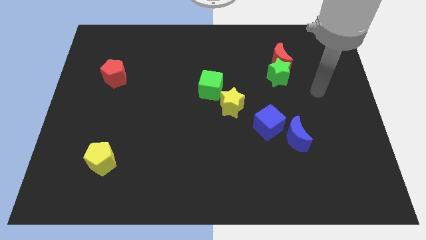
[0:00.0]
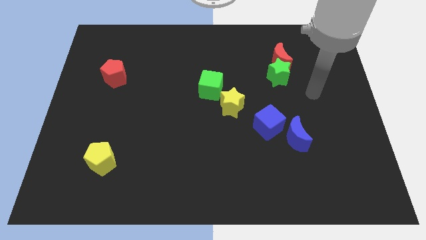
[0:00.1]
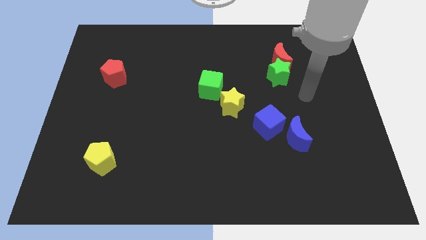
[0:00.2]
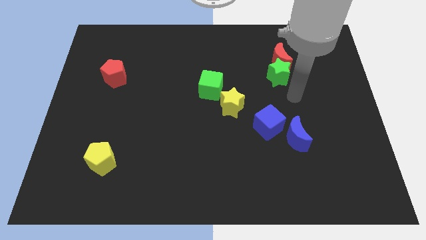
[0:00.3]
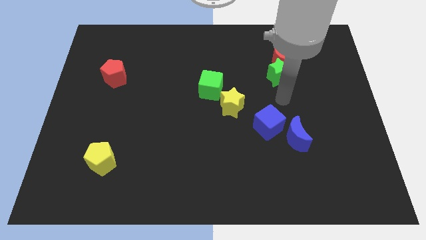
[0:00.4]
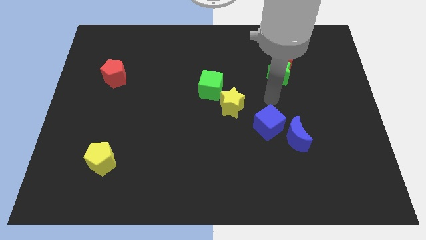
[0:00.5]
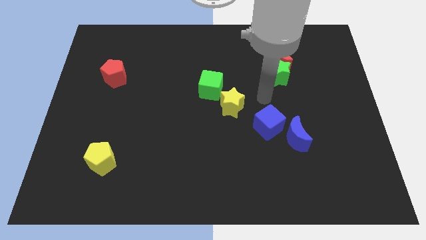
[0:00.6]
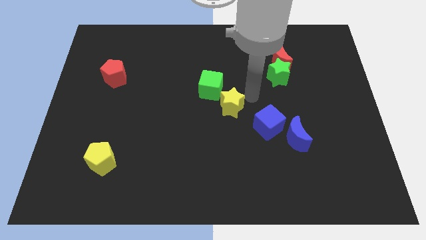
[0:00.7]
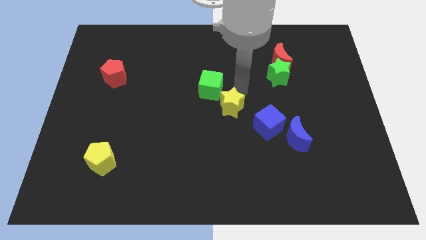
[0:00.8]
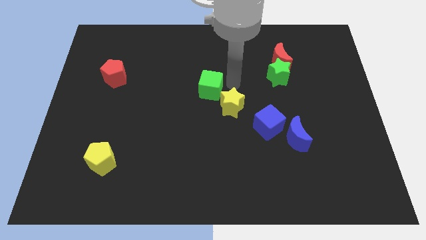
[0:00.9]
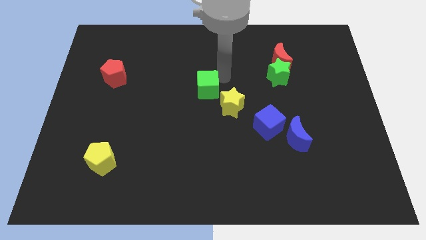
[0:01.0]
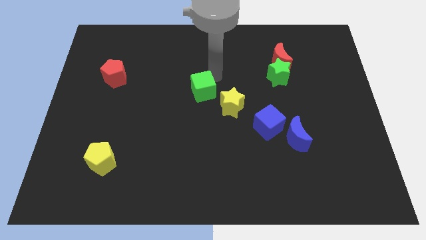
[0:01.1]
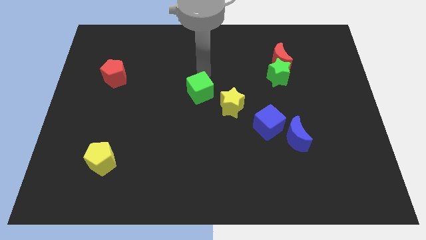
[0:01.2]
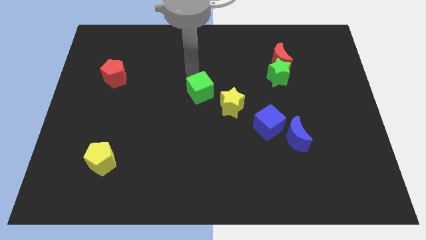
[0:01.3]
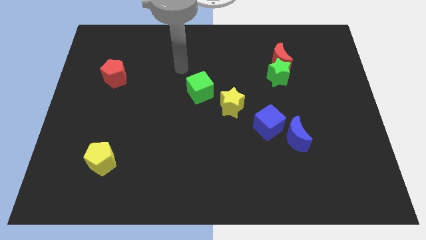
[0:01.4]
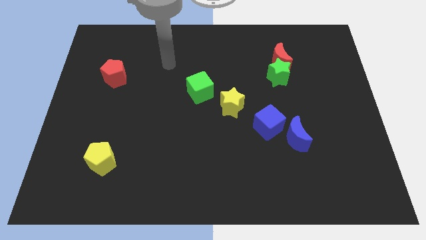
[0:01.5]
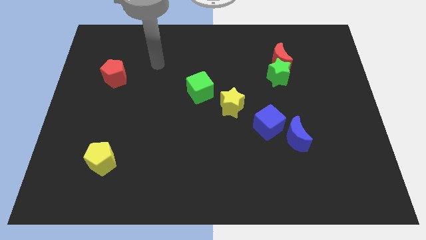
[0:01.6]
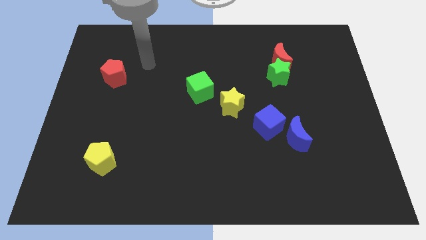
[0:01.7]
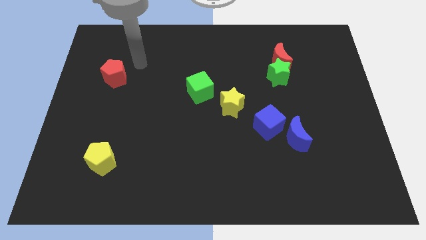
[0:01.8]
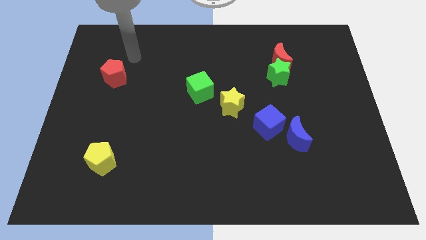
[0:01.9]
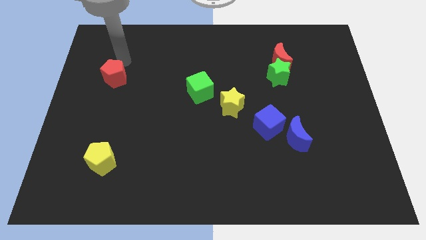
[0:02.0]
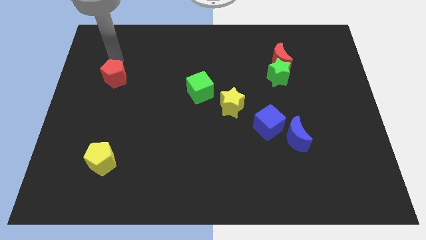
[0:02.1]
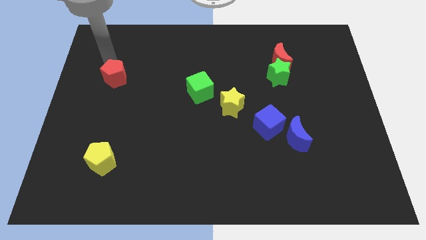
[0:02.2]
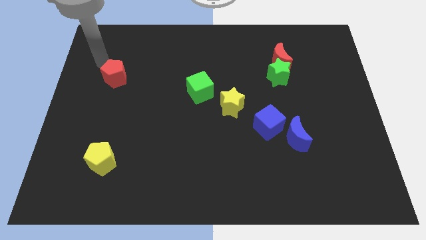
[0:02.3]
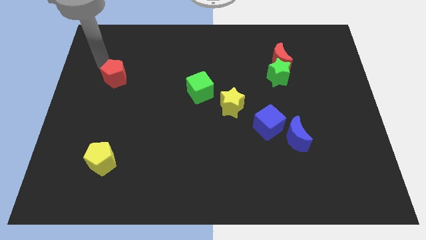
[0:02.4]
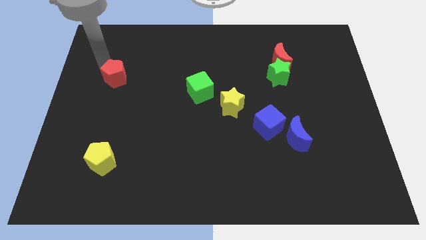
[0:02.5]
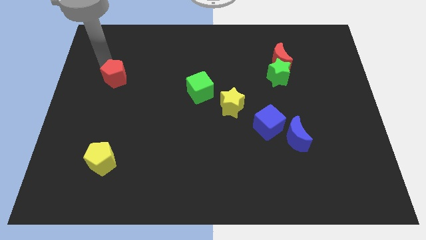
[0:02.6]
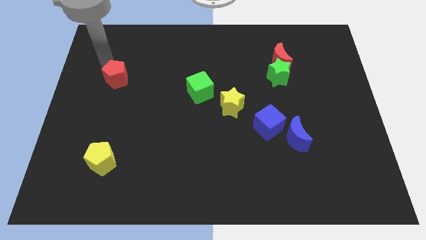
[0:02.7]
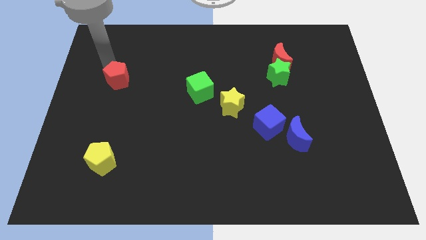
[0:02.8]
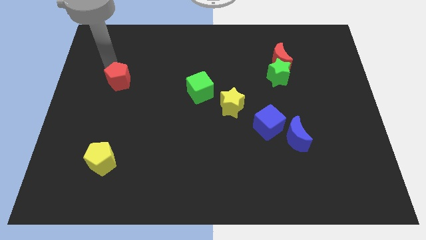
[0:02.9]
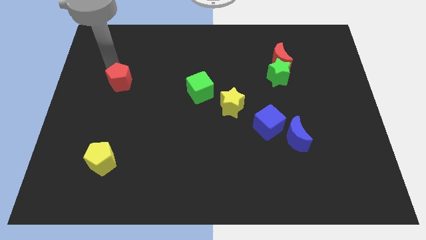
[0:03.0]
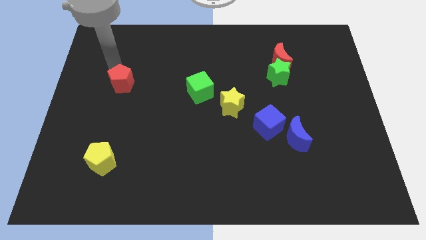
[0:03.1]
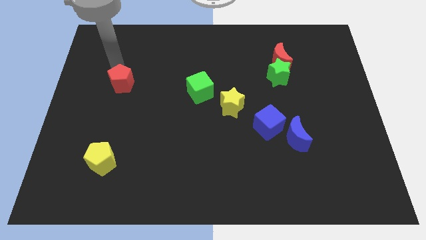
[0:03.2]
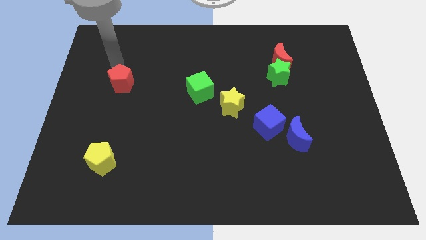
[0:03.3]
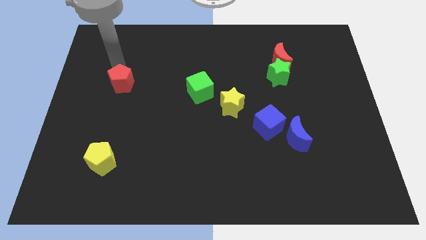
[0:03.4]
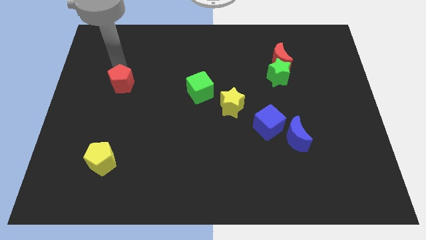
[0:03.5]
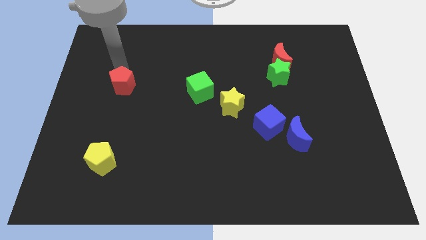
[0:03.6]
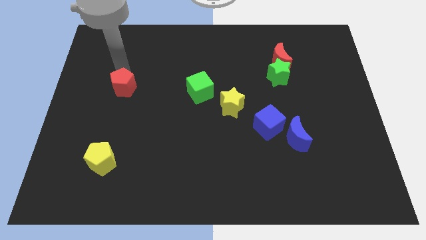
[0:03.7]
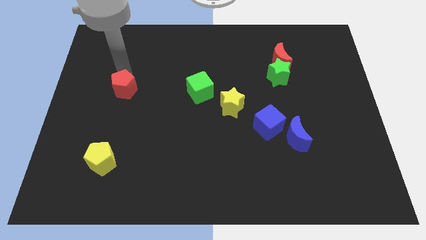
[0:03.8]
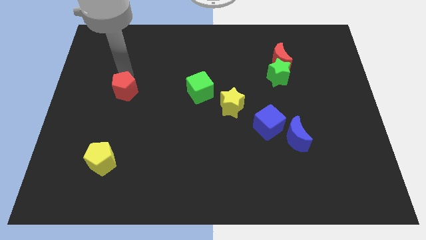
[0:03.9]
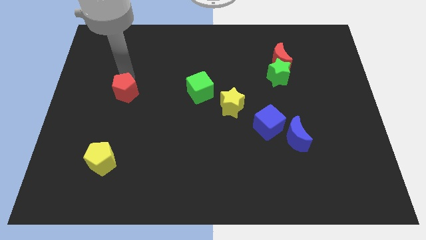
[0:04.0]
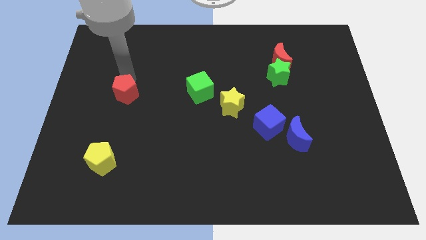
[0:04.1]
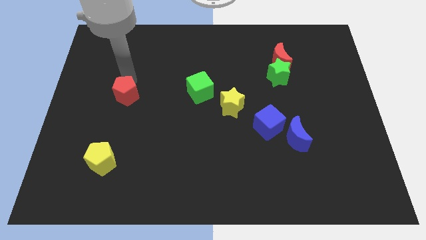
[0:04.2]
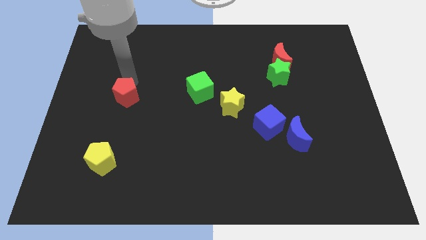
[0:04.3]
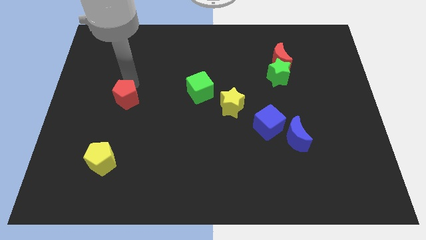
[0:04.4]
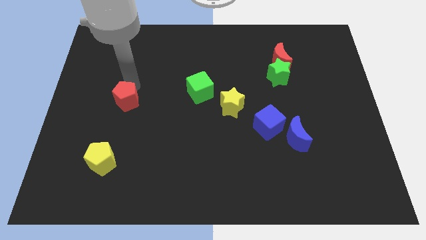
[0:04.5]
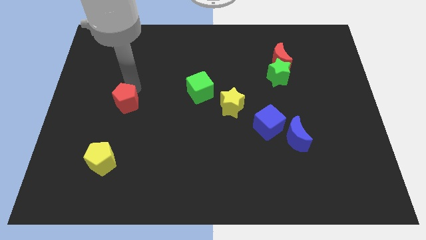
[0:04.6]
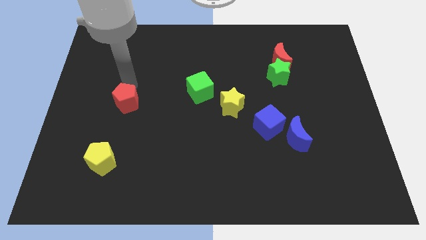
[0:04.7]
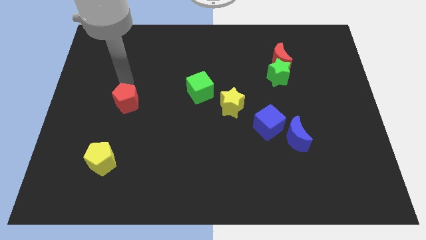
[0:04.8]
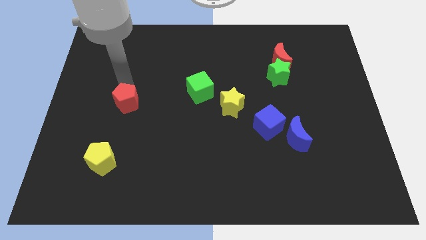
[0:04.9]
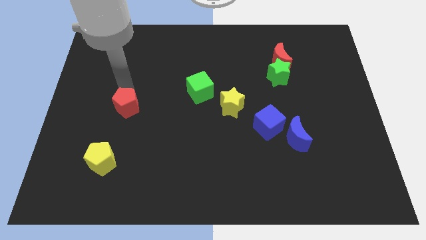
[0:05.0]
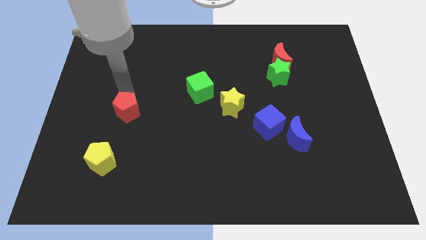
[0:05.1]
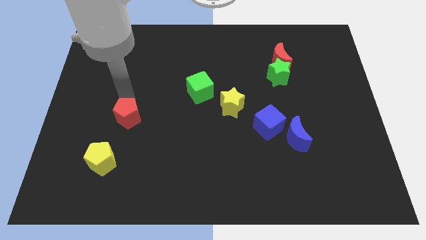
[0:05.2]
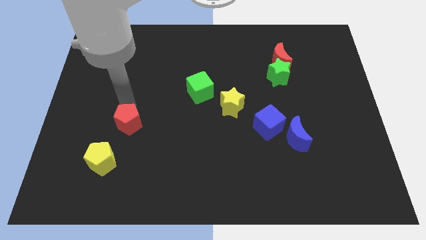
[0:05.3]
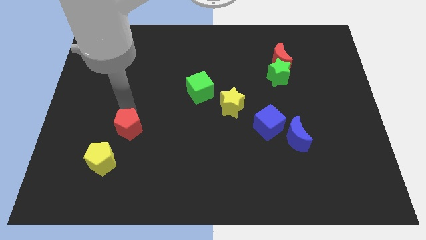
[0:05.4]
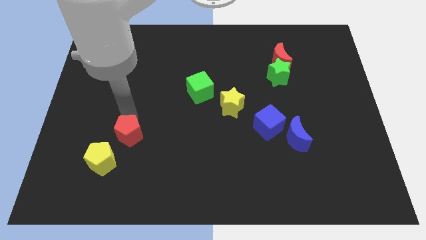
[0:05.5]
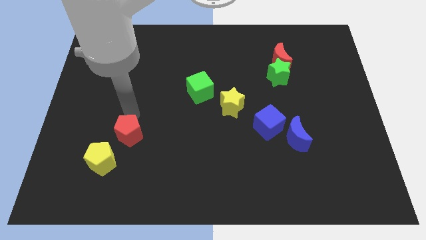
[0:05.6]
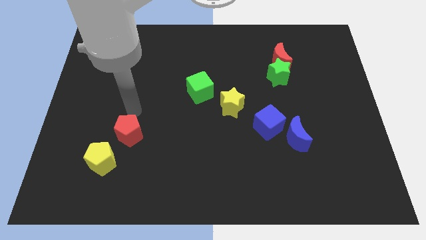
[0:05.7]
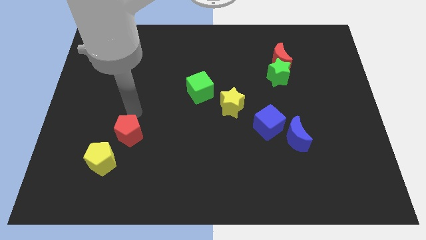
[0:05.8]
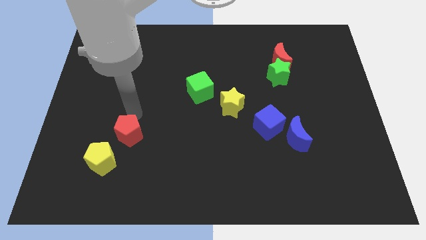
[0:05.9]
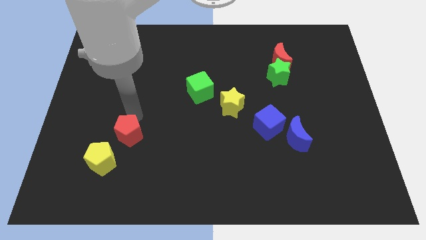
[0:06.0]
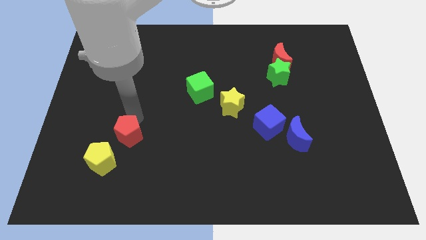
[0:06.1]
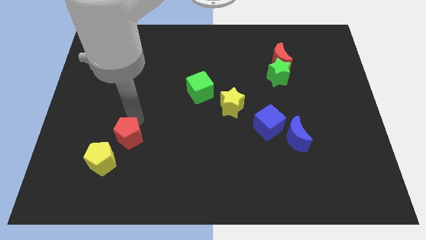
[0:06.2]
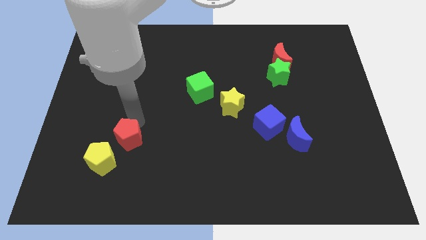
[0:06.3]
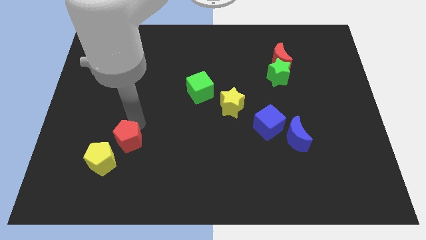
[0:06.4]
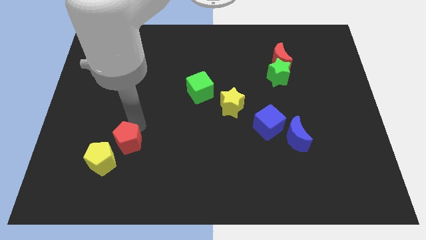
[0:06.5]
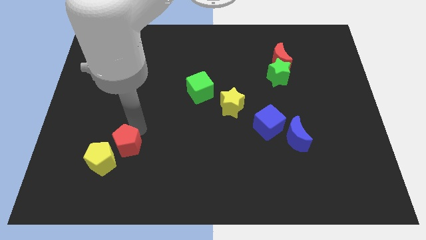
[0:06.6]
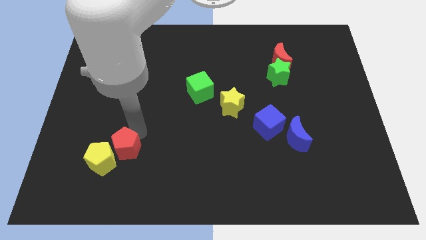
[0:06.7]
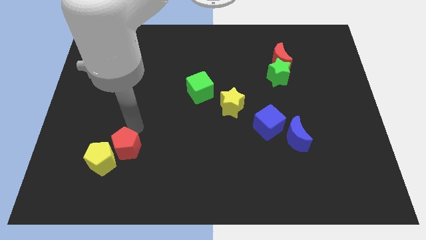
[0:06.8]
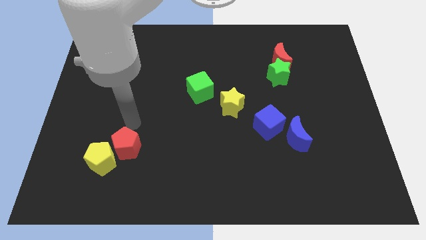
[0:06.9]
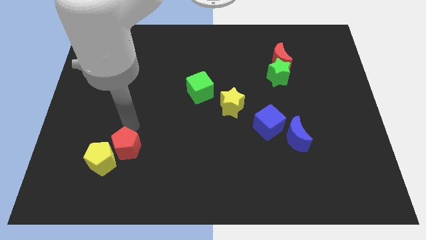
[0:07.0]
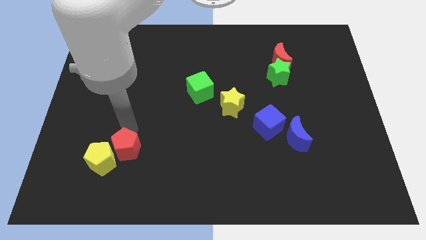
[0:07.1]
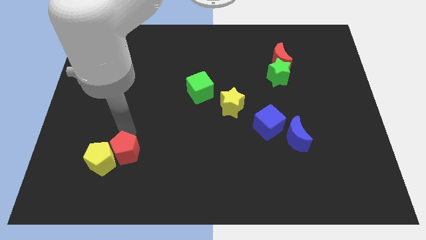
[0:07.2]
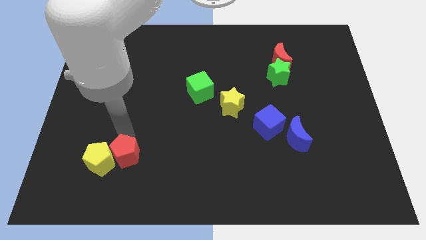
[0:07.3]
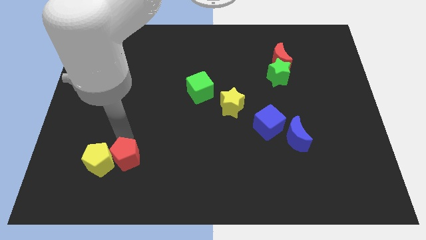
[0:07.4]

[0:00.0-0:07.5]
push the red pentagon diagonally down and to the right of the yellow pentagon

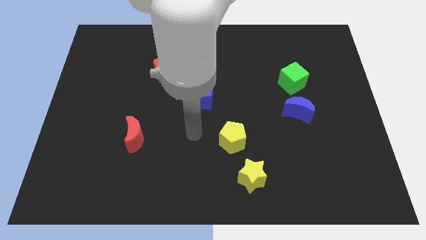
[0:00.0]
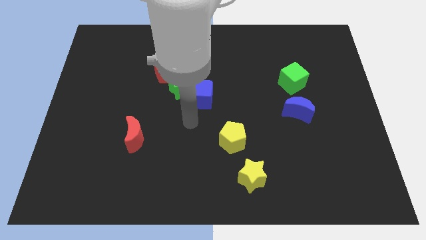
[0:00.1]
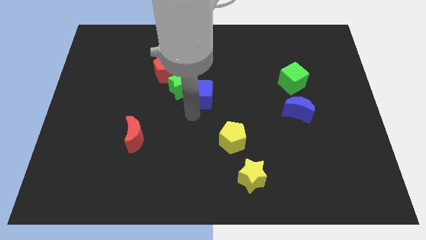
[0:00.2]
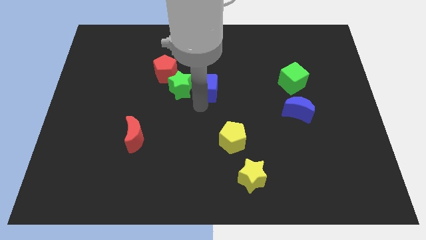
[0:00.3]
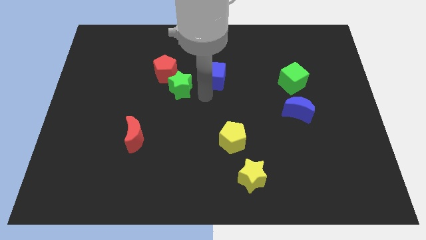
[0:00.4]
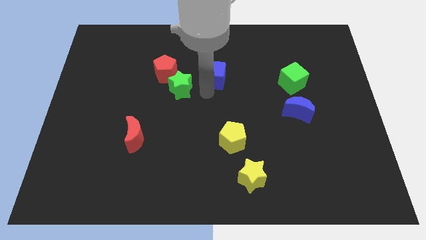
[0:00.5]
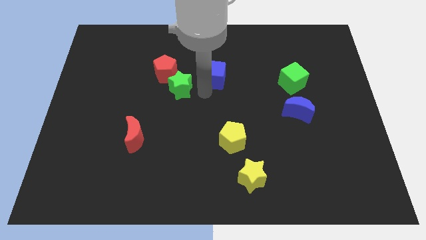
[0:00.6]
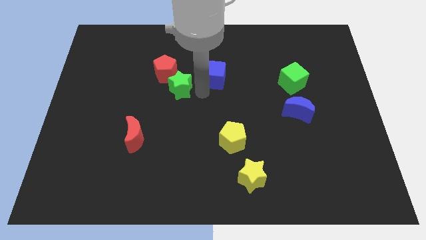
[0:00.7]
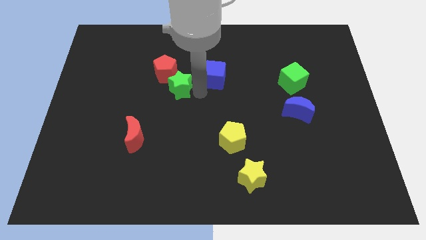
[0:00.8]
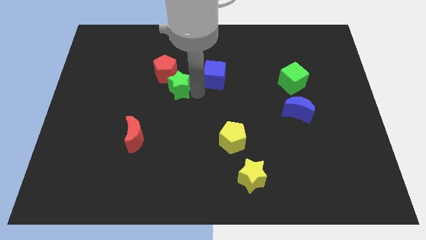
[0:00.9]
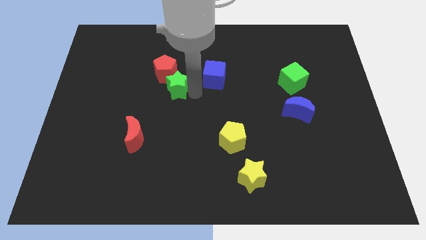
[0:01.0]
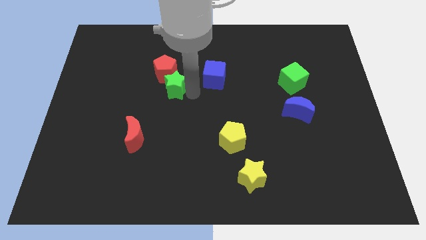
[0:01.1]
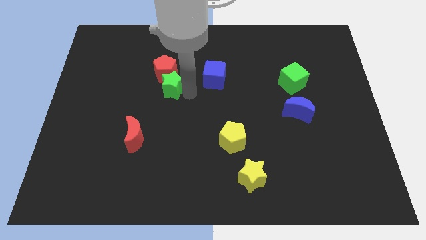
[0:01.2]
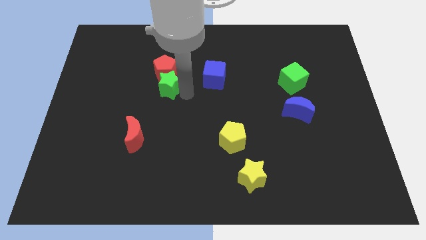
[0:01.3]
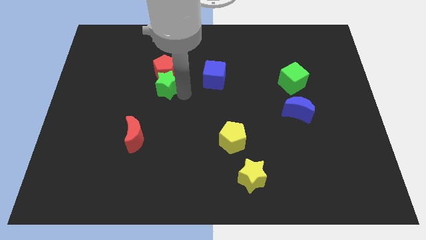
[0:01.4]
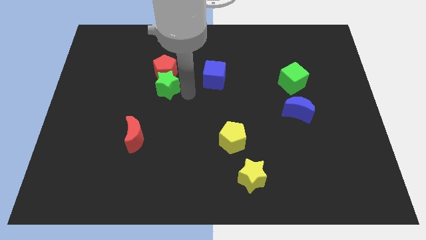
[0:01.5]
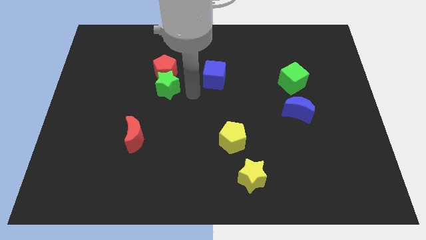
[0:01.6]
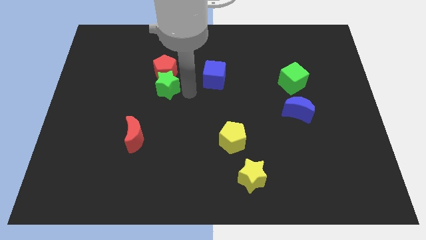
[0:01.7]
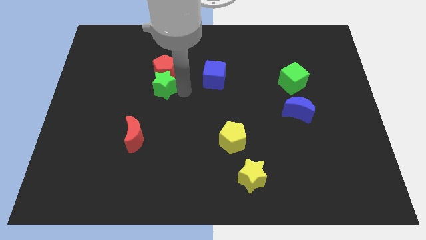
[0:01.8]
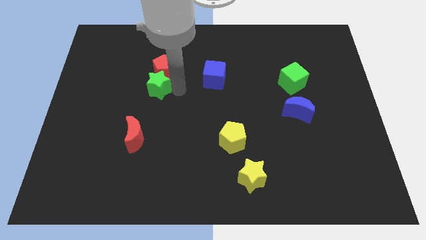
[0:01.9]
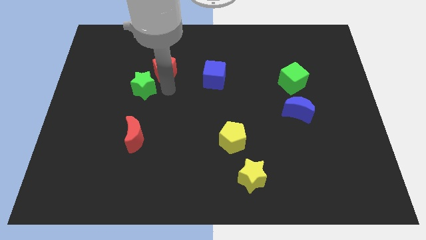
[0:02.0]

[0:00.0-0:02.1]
put the green star just left of the red pentagon
